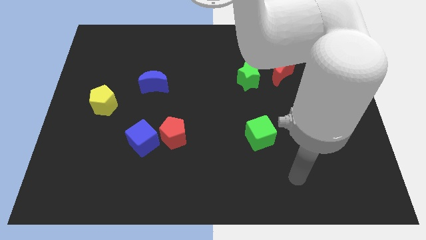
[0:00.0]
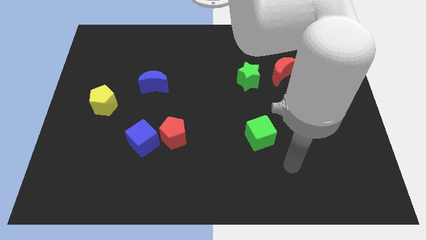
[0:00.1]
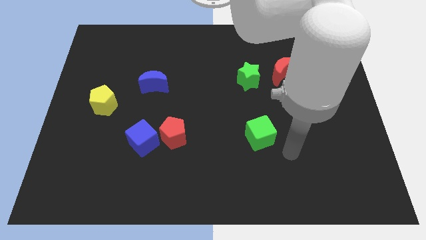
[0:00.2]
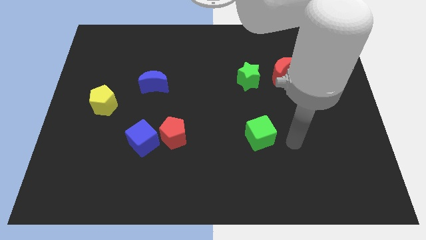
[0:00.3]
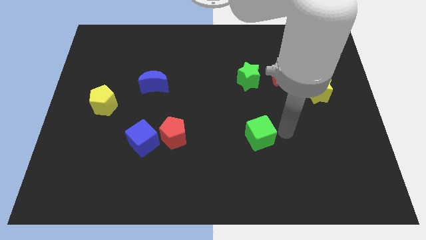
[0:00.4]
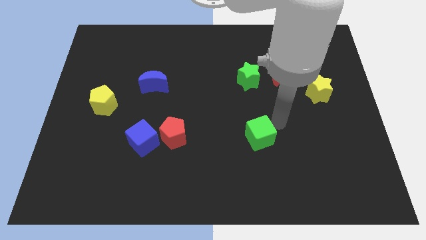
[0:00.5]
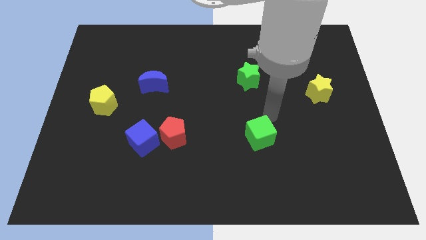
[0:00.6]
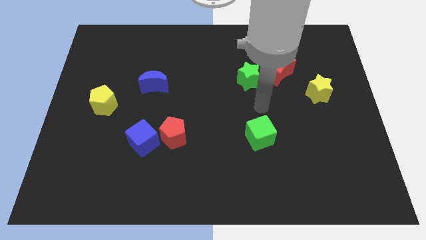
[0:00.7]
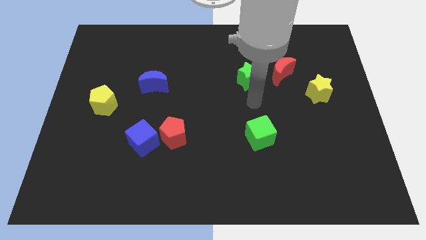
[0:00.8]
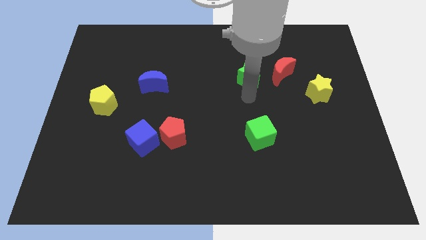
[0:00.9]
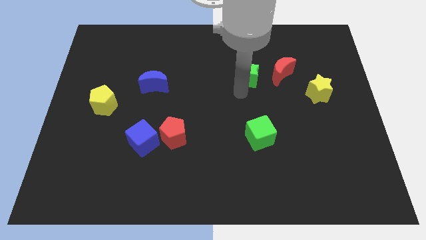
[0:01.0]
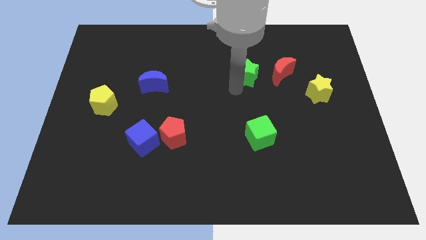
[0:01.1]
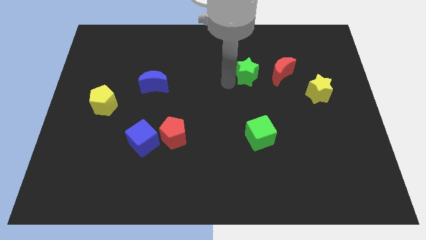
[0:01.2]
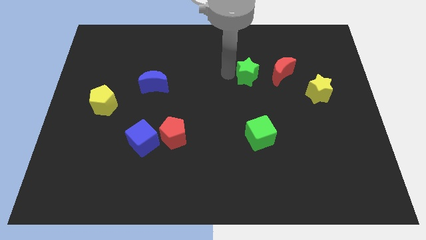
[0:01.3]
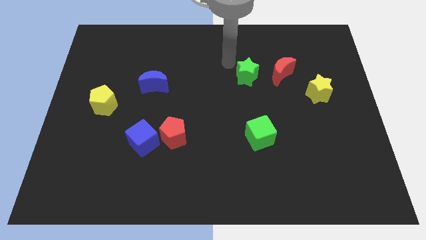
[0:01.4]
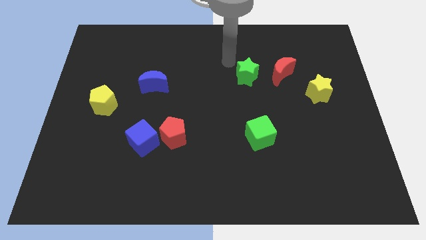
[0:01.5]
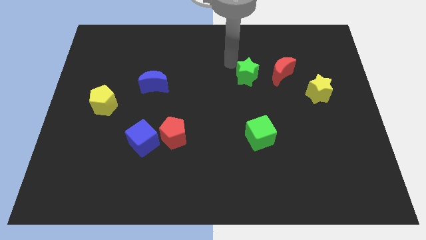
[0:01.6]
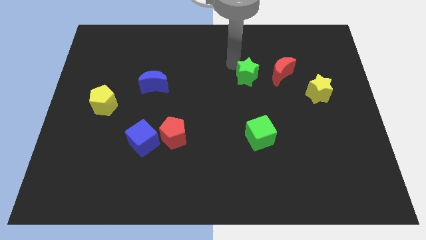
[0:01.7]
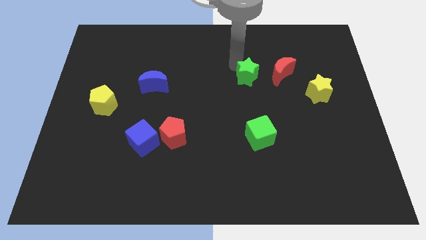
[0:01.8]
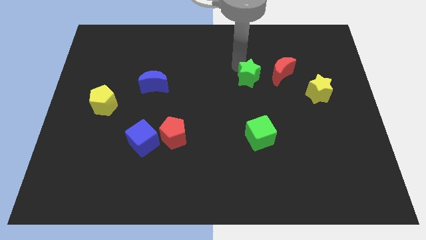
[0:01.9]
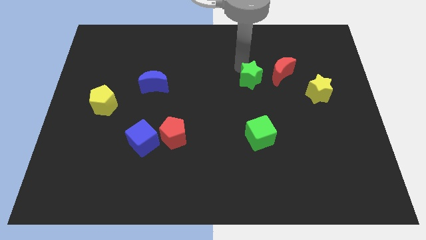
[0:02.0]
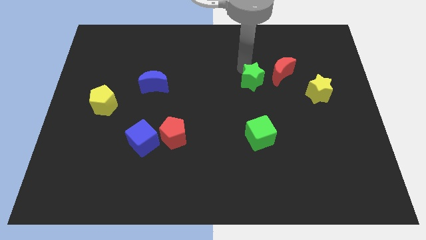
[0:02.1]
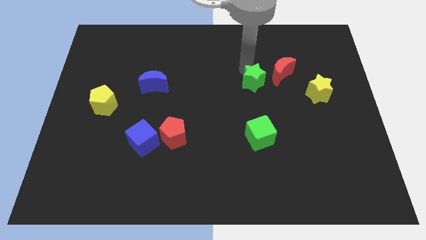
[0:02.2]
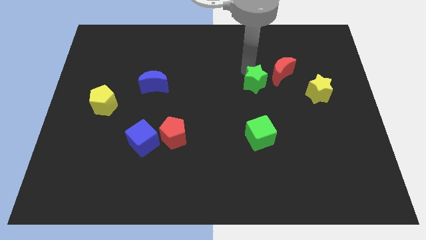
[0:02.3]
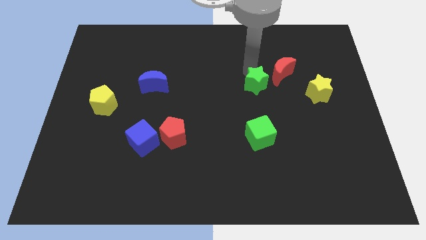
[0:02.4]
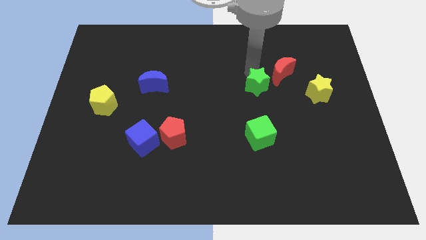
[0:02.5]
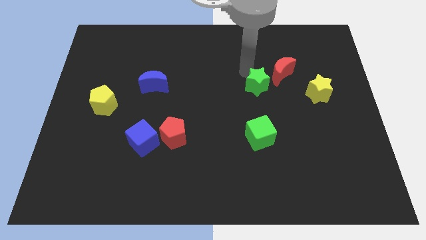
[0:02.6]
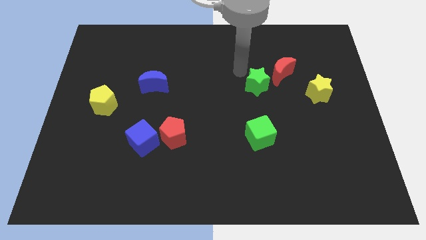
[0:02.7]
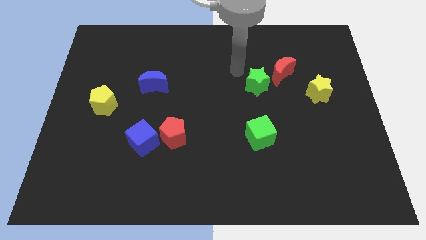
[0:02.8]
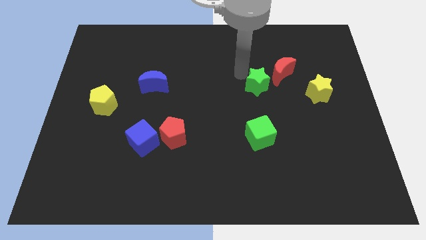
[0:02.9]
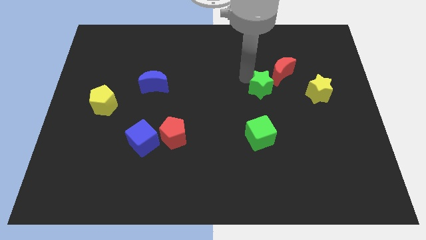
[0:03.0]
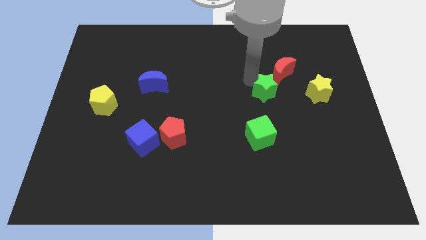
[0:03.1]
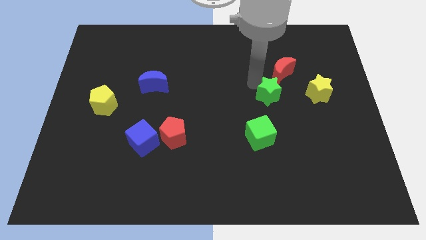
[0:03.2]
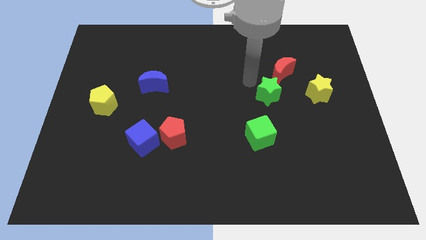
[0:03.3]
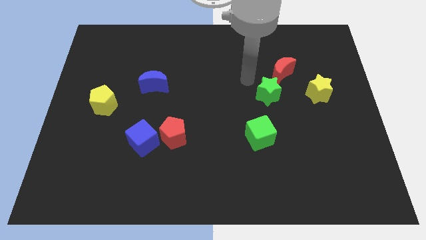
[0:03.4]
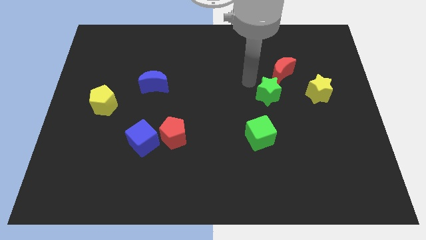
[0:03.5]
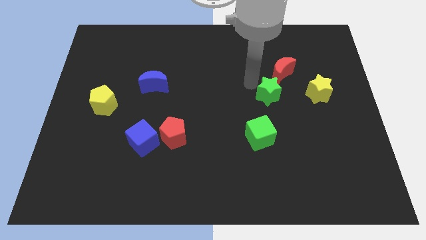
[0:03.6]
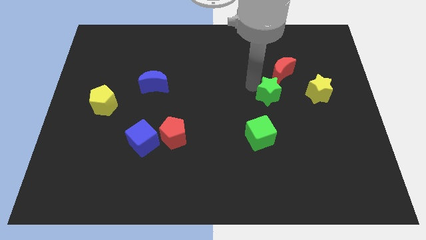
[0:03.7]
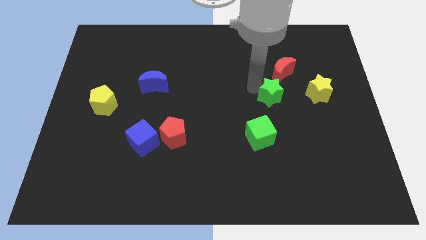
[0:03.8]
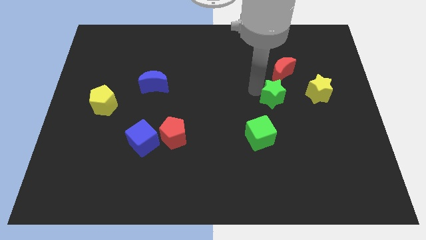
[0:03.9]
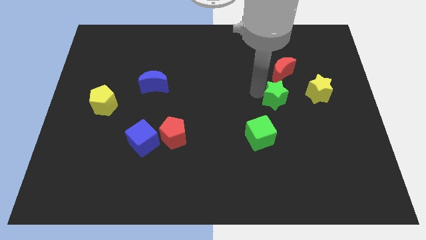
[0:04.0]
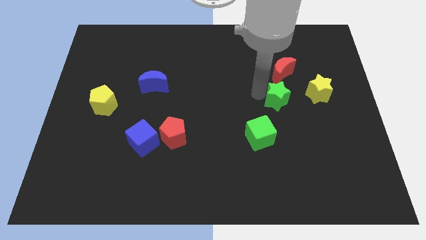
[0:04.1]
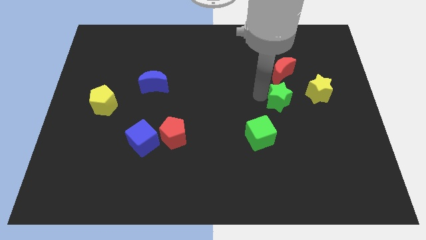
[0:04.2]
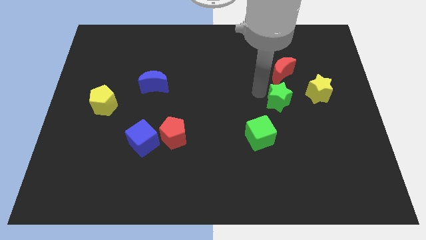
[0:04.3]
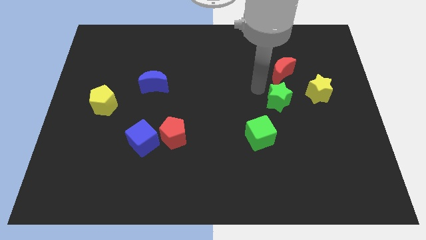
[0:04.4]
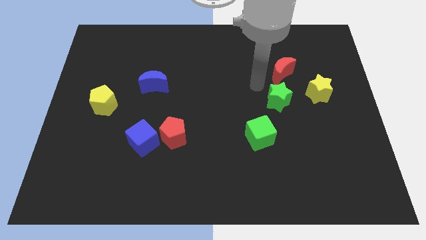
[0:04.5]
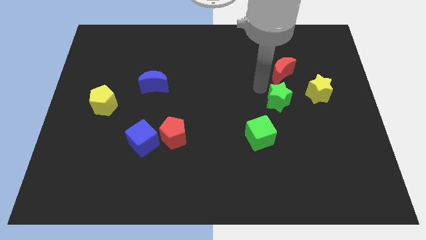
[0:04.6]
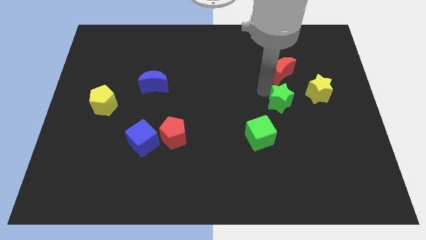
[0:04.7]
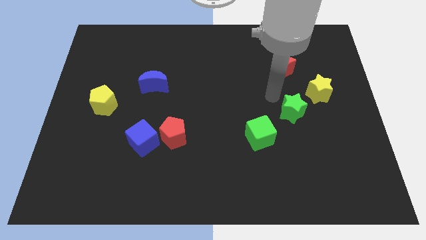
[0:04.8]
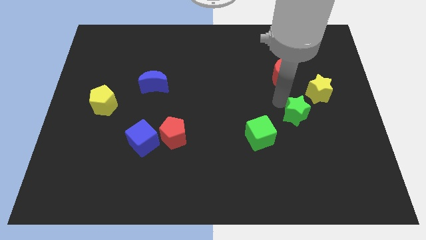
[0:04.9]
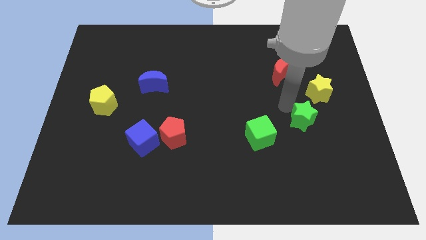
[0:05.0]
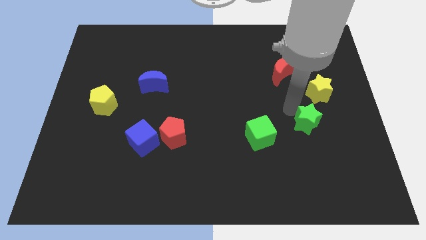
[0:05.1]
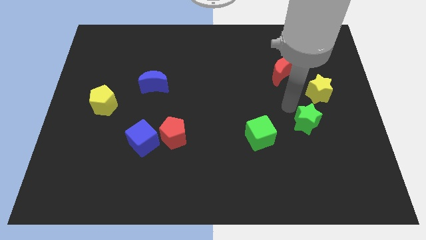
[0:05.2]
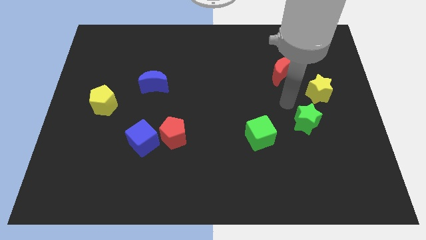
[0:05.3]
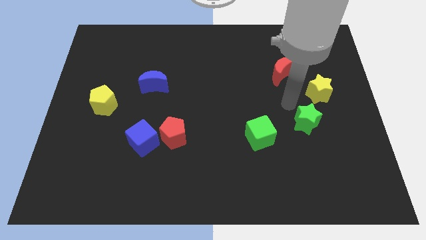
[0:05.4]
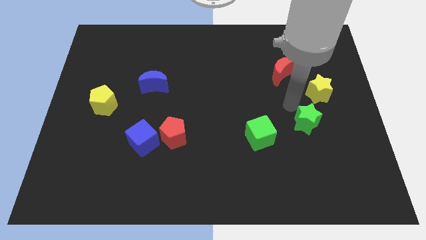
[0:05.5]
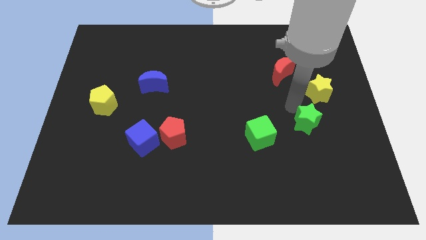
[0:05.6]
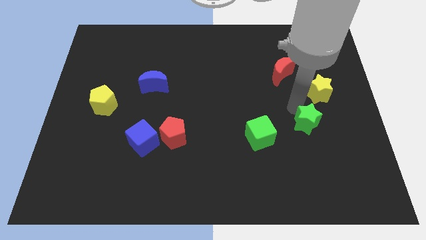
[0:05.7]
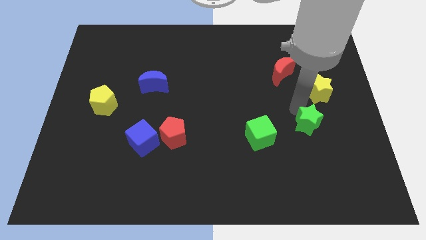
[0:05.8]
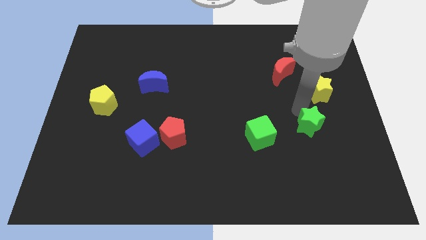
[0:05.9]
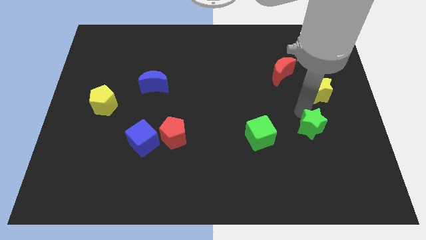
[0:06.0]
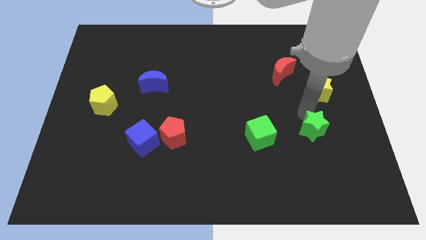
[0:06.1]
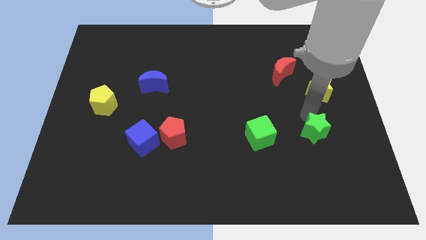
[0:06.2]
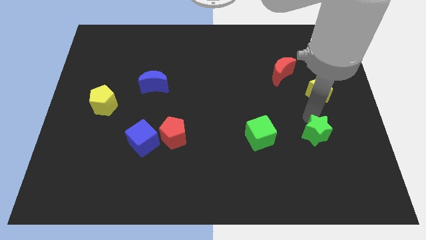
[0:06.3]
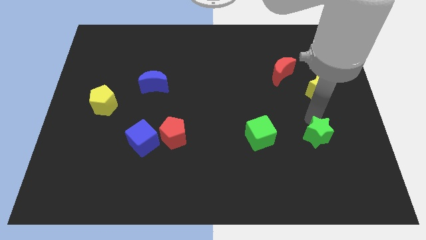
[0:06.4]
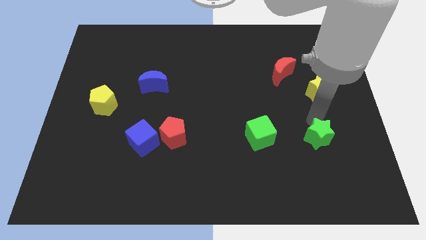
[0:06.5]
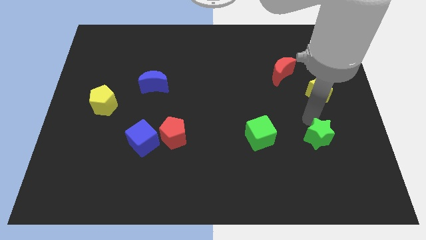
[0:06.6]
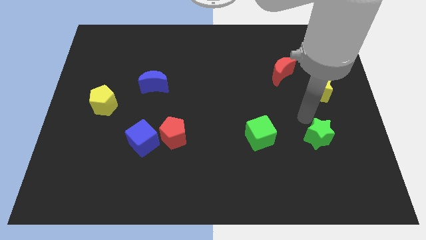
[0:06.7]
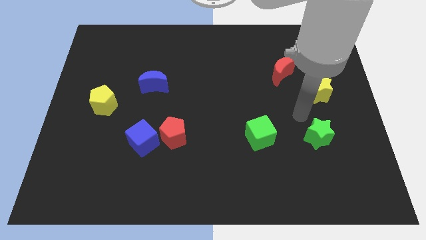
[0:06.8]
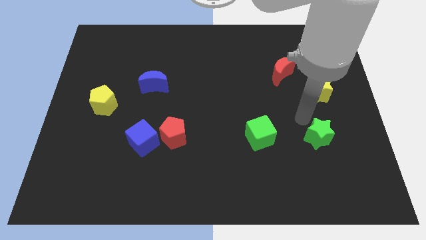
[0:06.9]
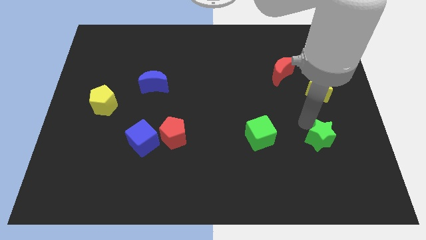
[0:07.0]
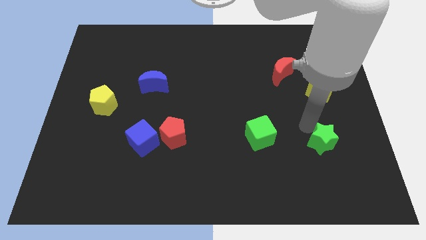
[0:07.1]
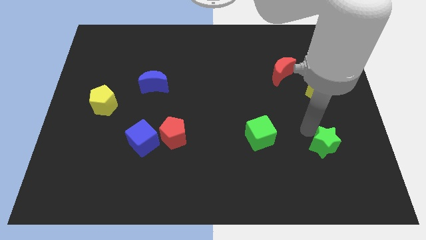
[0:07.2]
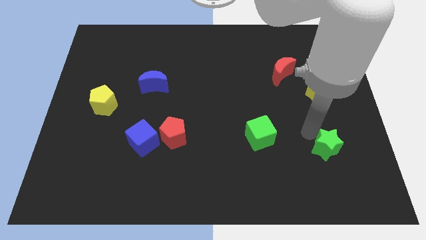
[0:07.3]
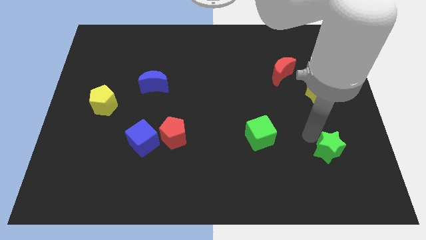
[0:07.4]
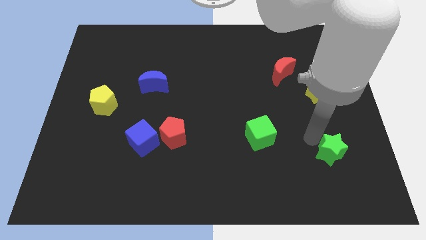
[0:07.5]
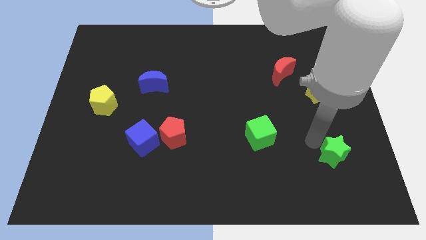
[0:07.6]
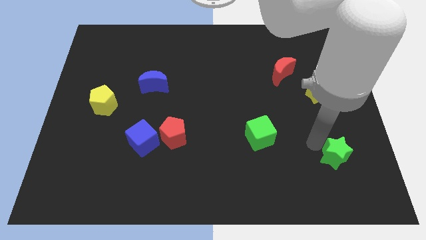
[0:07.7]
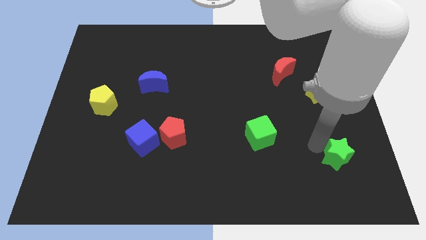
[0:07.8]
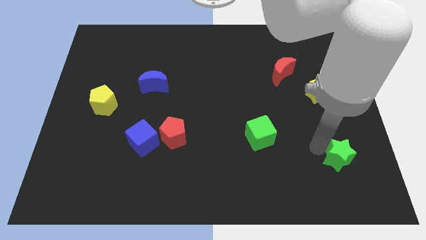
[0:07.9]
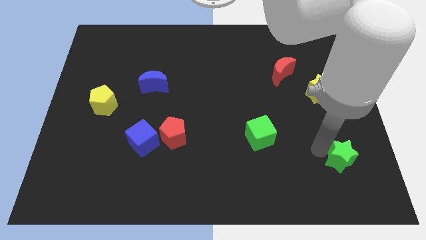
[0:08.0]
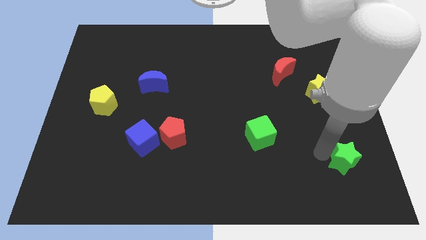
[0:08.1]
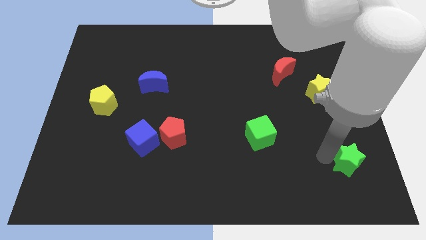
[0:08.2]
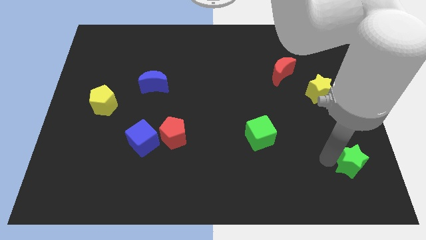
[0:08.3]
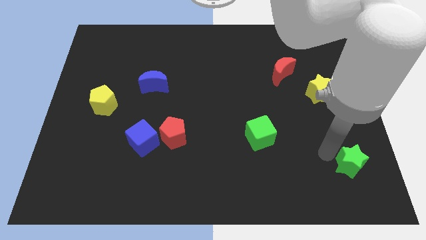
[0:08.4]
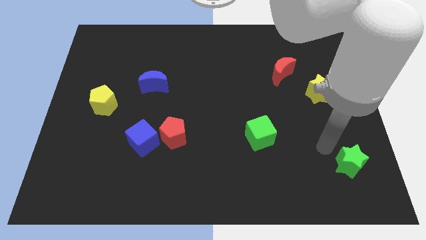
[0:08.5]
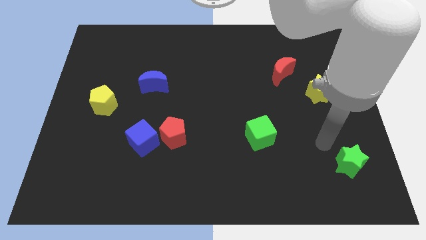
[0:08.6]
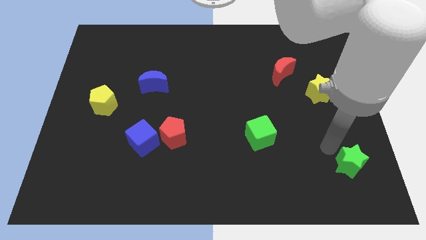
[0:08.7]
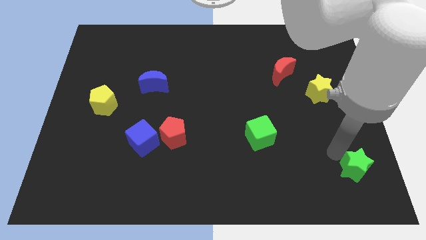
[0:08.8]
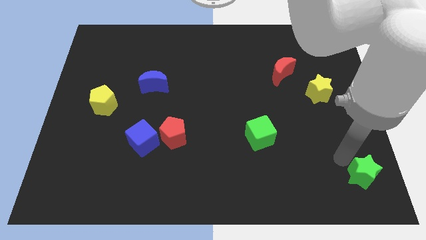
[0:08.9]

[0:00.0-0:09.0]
slide the green star to the bottom right
